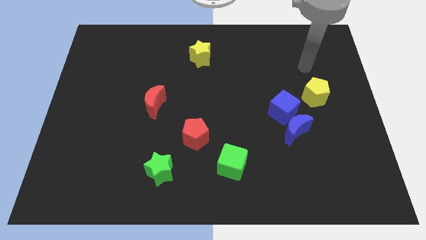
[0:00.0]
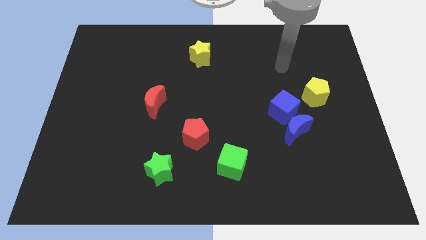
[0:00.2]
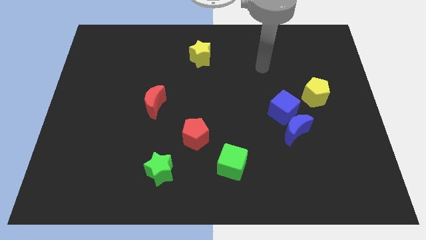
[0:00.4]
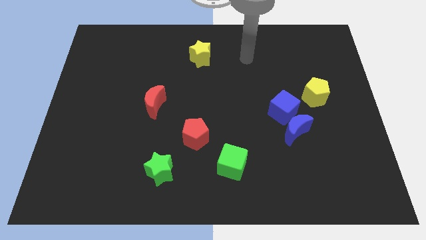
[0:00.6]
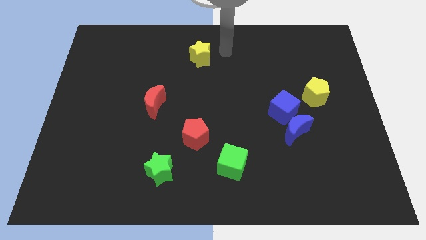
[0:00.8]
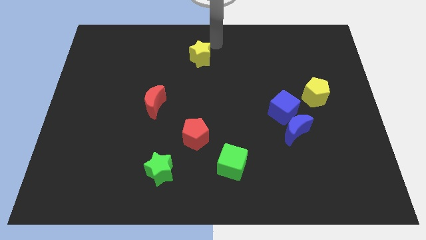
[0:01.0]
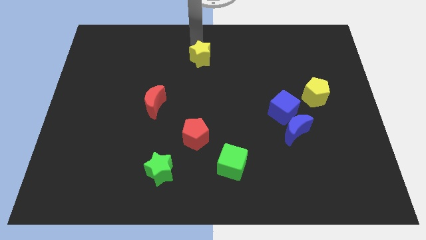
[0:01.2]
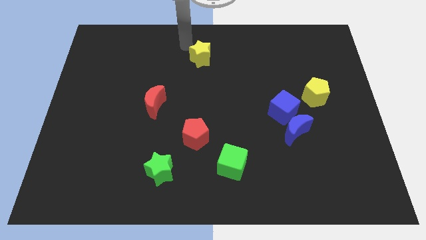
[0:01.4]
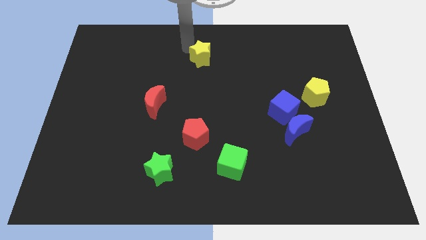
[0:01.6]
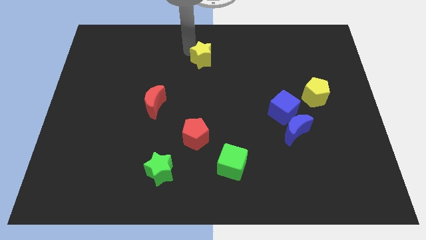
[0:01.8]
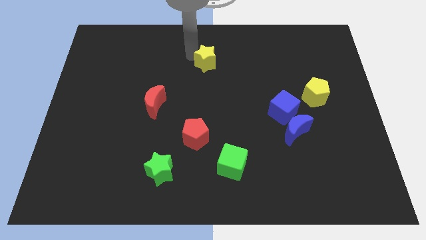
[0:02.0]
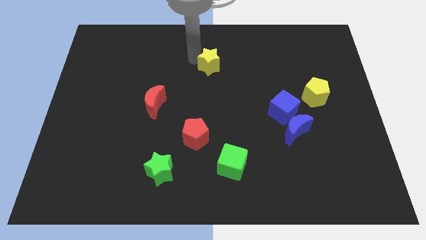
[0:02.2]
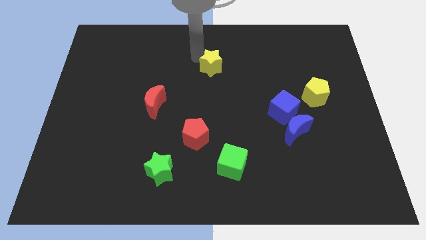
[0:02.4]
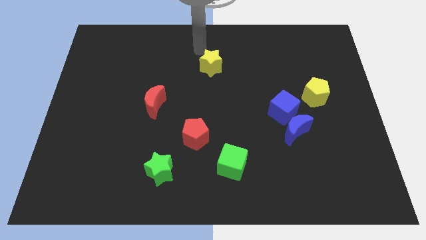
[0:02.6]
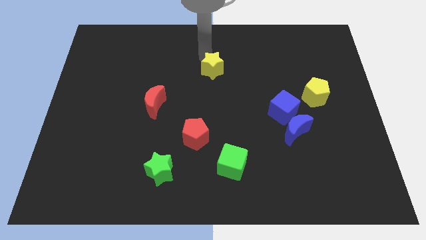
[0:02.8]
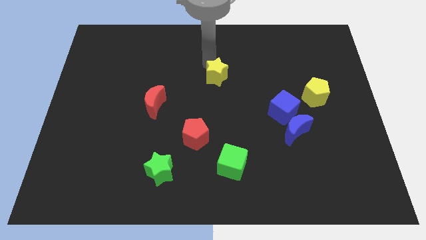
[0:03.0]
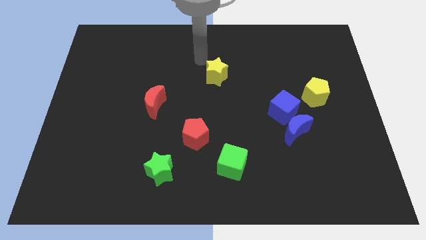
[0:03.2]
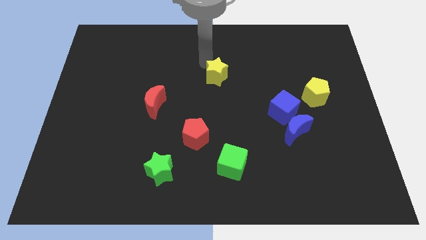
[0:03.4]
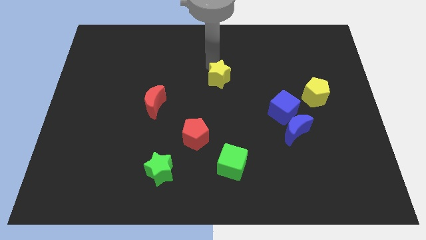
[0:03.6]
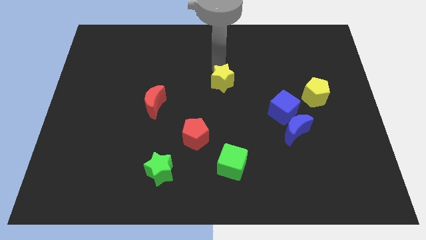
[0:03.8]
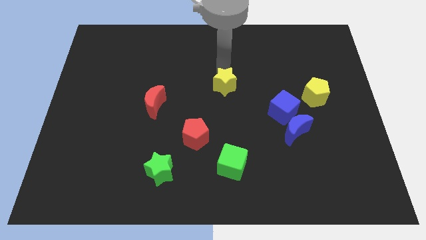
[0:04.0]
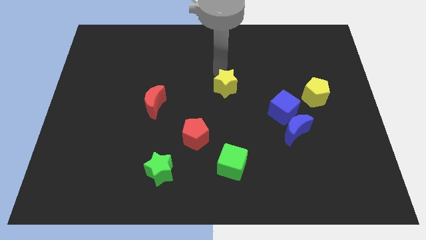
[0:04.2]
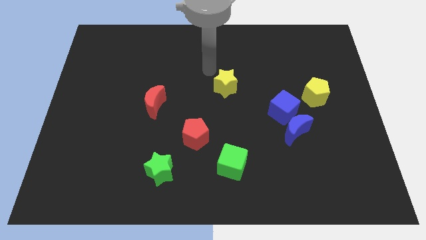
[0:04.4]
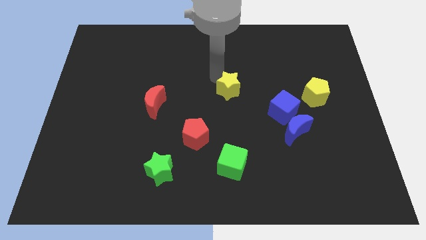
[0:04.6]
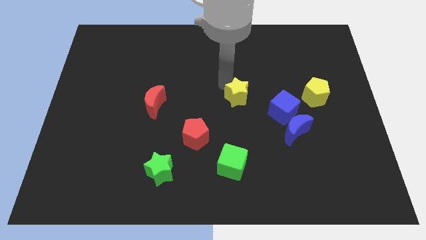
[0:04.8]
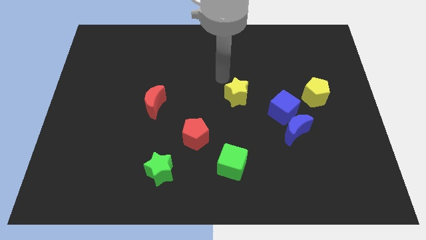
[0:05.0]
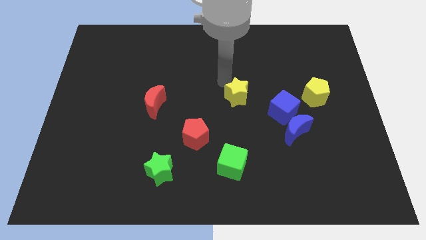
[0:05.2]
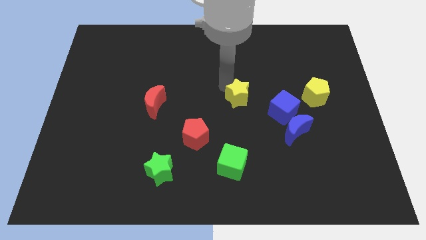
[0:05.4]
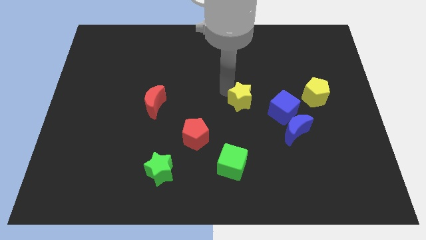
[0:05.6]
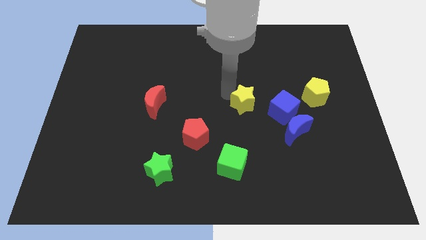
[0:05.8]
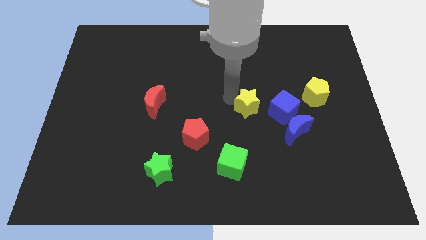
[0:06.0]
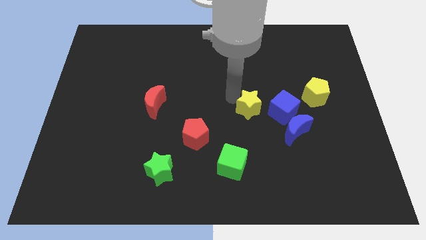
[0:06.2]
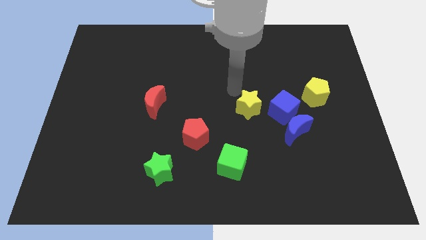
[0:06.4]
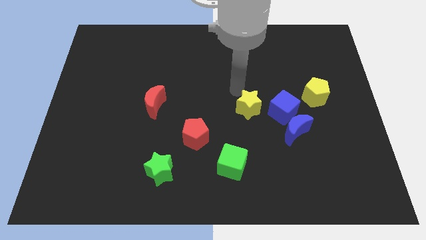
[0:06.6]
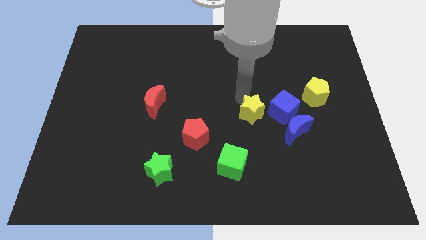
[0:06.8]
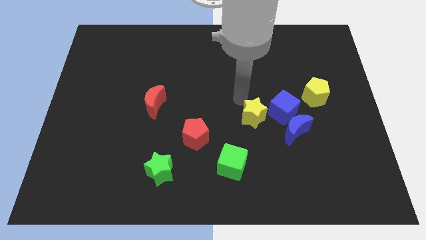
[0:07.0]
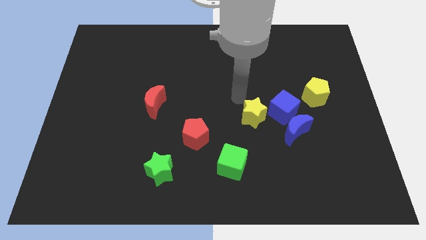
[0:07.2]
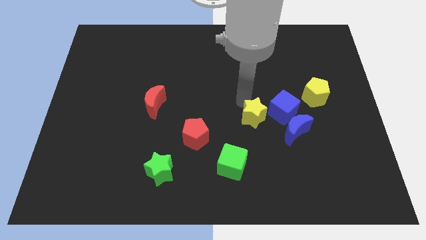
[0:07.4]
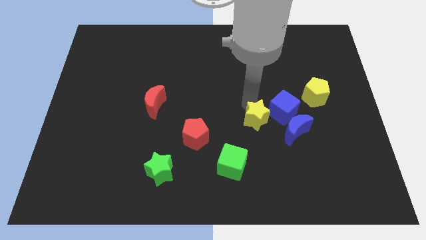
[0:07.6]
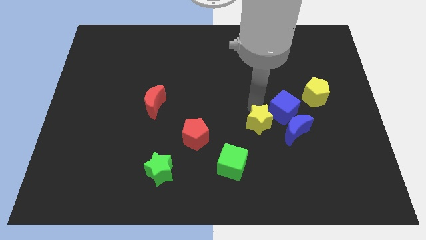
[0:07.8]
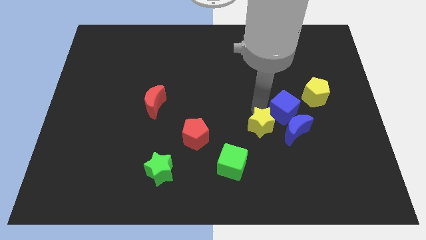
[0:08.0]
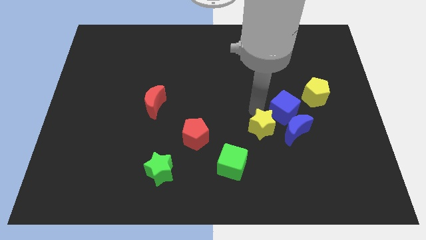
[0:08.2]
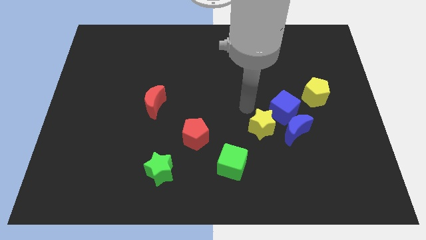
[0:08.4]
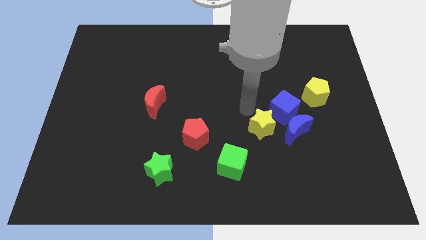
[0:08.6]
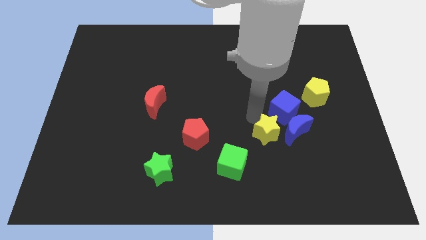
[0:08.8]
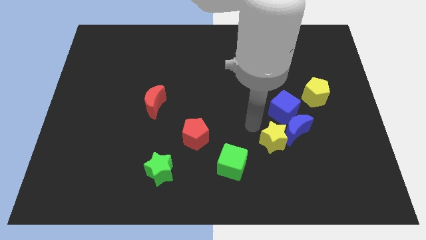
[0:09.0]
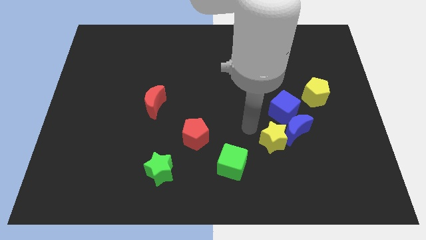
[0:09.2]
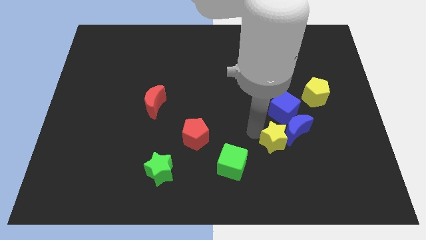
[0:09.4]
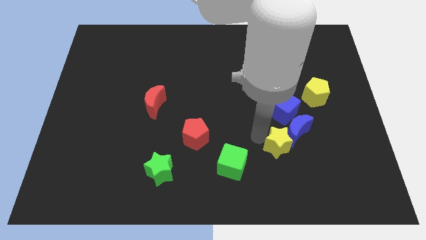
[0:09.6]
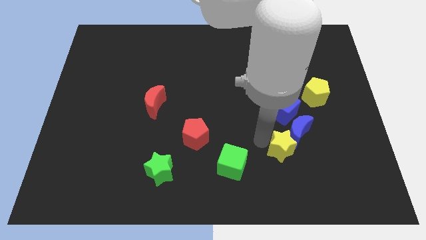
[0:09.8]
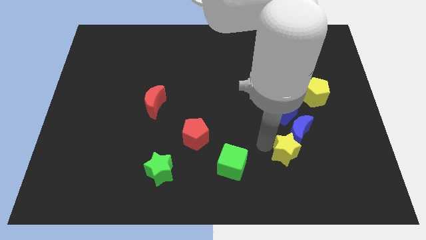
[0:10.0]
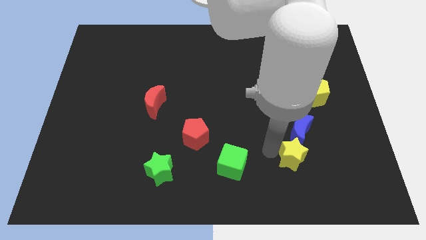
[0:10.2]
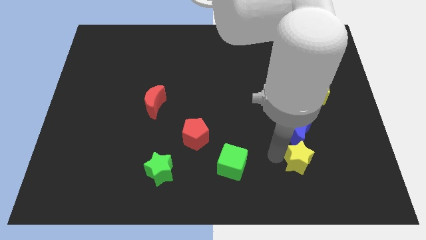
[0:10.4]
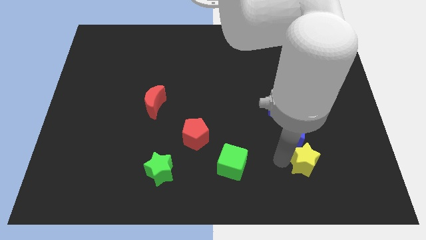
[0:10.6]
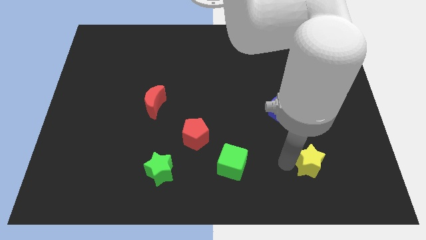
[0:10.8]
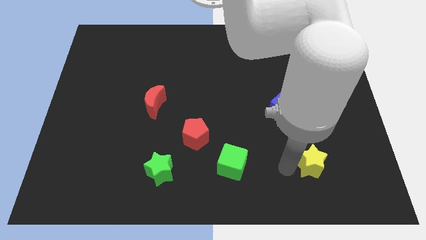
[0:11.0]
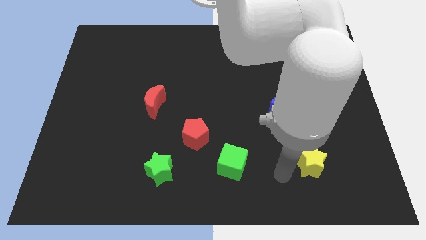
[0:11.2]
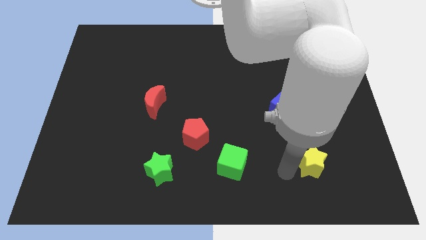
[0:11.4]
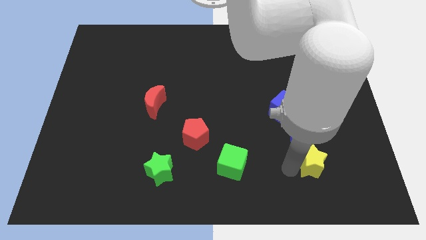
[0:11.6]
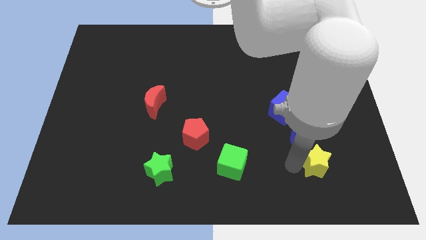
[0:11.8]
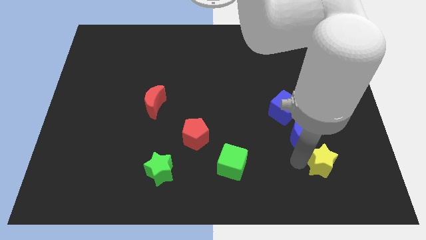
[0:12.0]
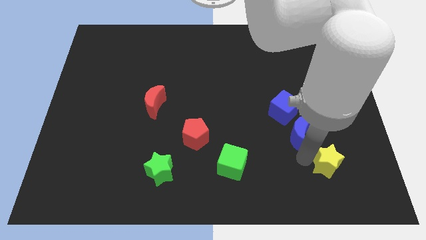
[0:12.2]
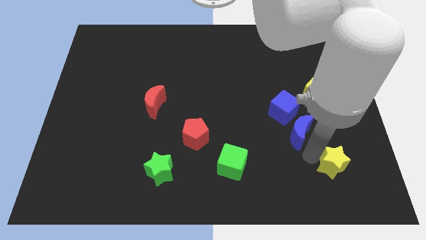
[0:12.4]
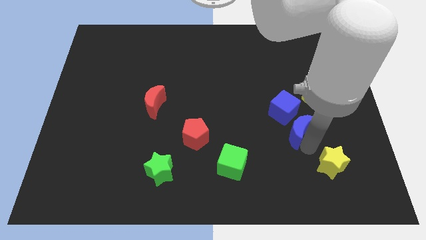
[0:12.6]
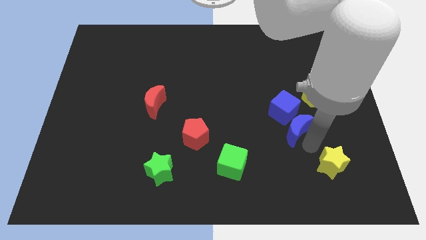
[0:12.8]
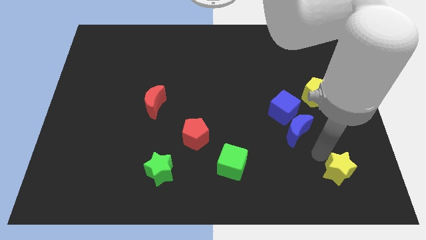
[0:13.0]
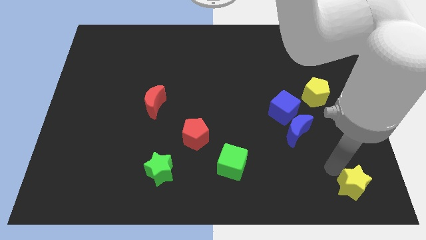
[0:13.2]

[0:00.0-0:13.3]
move the yellow star to the lower right corner
